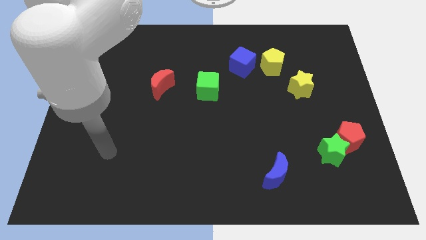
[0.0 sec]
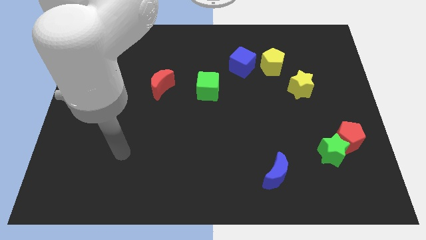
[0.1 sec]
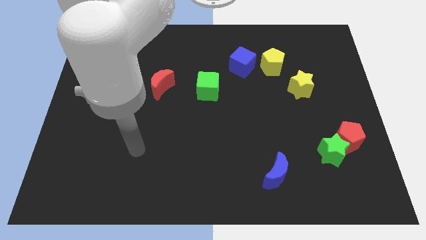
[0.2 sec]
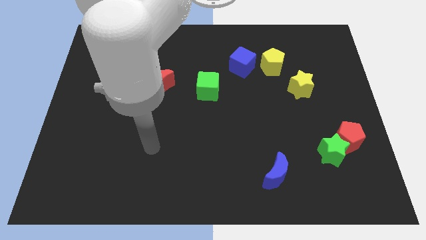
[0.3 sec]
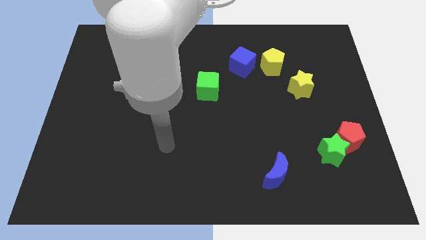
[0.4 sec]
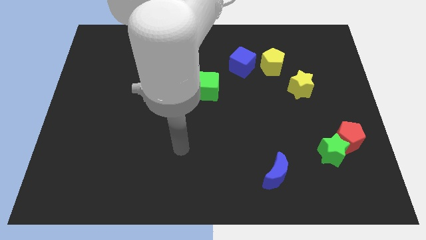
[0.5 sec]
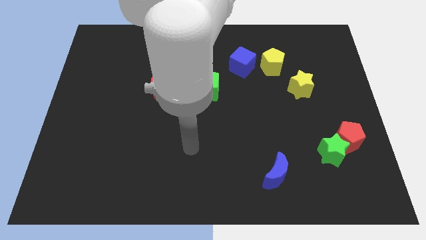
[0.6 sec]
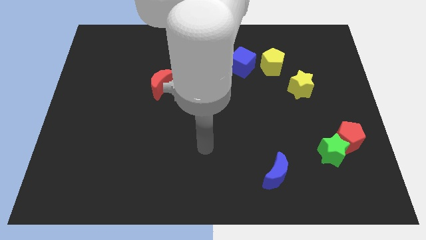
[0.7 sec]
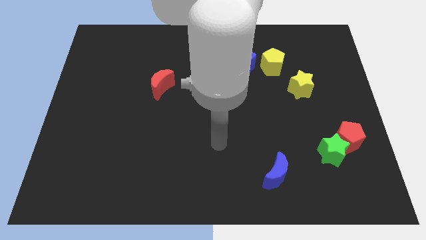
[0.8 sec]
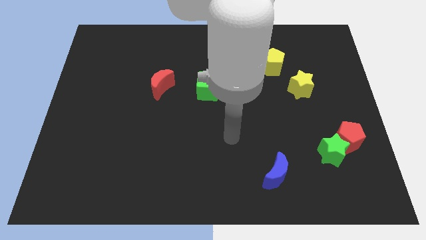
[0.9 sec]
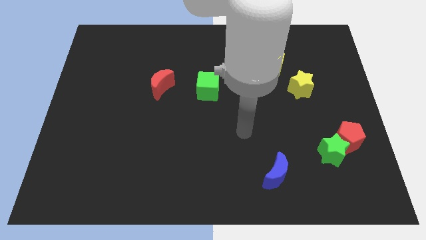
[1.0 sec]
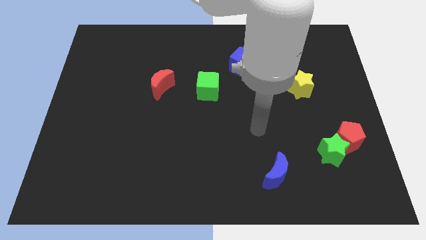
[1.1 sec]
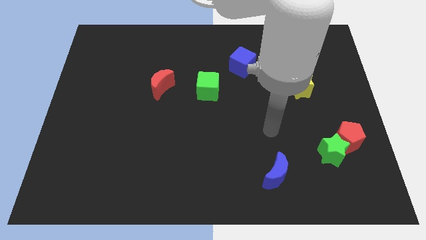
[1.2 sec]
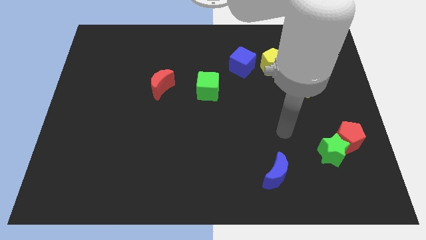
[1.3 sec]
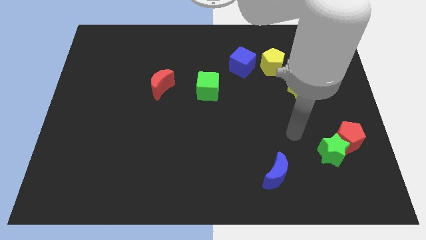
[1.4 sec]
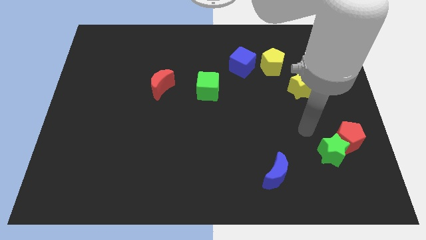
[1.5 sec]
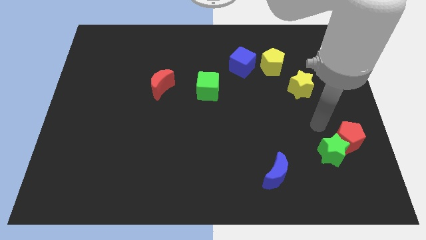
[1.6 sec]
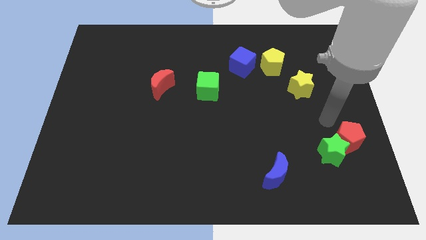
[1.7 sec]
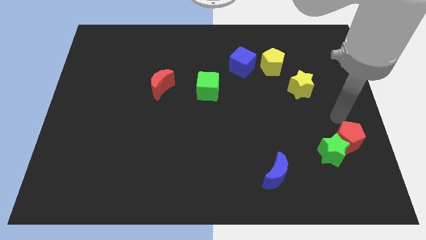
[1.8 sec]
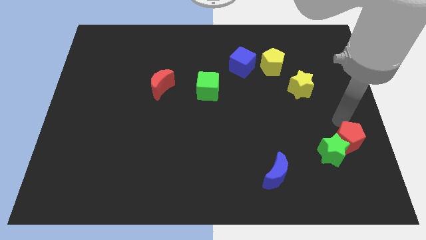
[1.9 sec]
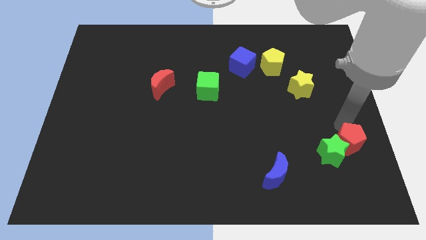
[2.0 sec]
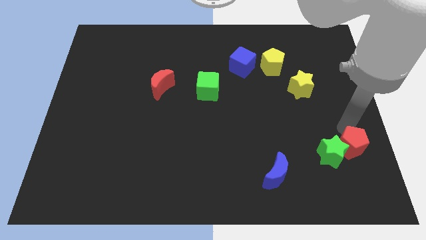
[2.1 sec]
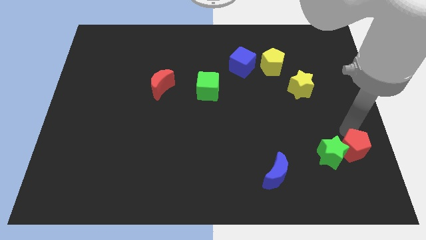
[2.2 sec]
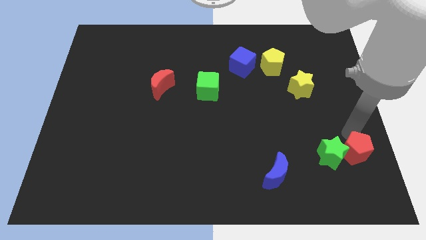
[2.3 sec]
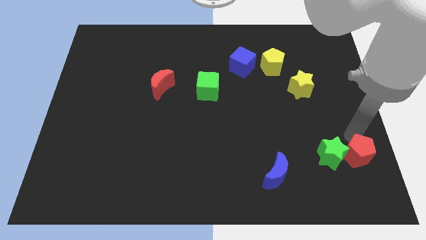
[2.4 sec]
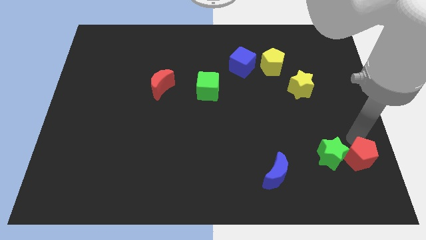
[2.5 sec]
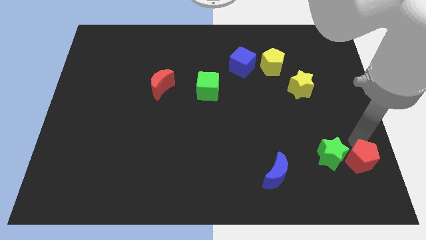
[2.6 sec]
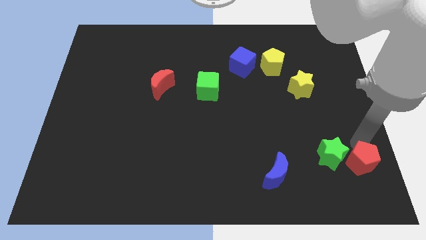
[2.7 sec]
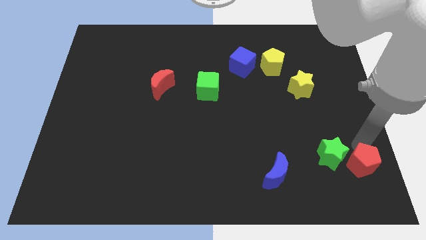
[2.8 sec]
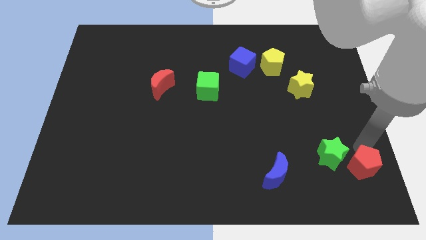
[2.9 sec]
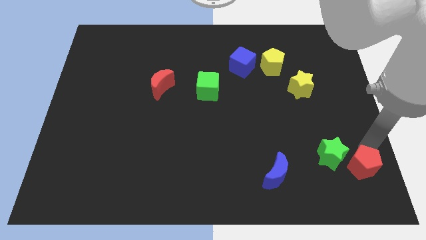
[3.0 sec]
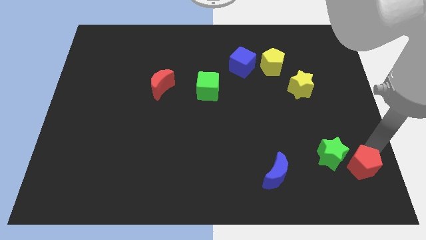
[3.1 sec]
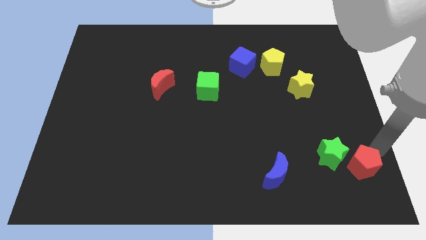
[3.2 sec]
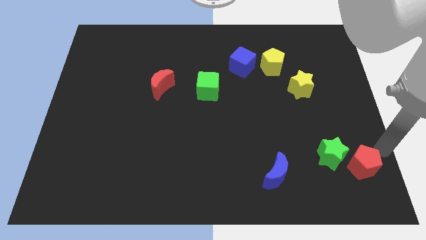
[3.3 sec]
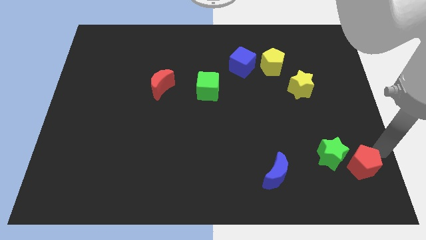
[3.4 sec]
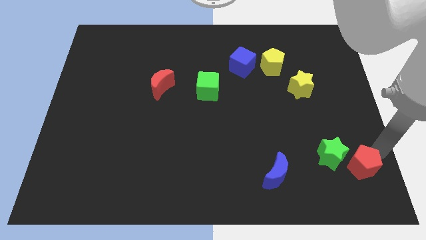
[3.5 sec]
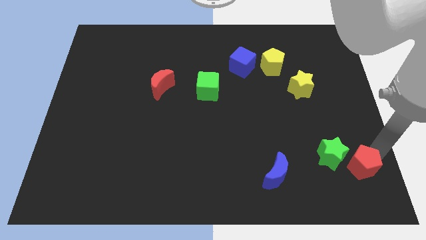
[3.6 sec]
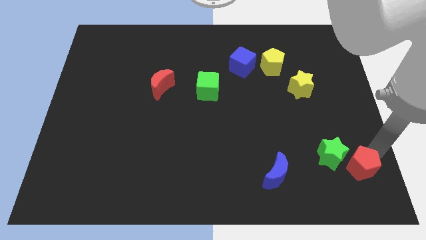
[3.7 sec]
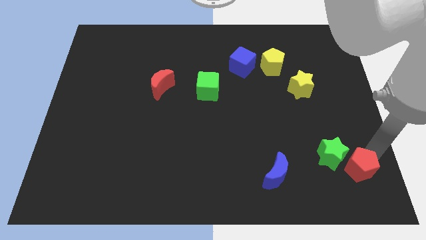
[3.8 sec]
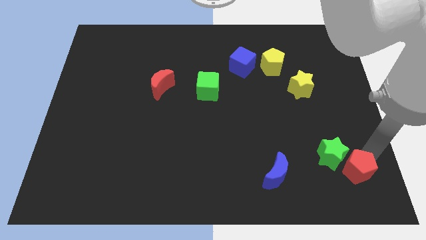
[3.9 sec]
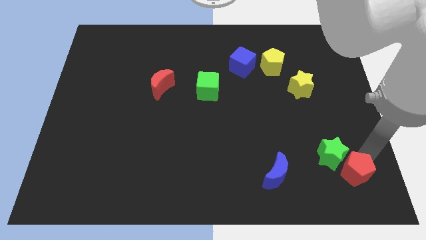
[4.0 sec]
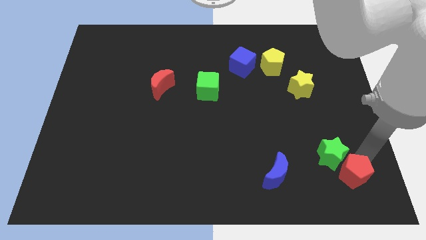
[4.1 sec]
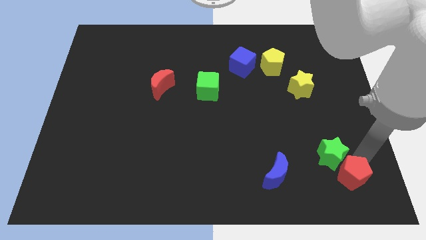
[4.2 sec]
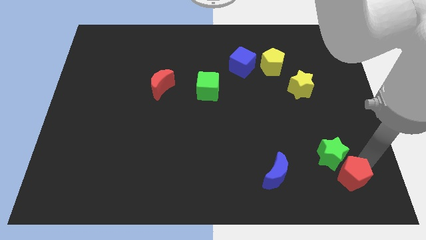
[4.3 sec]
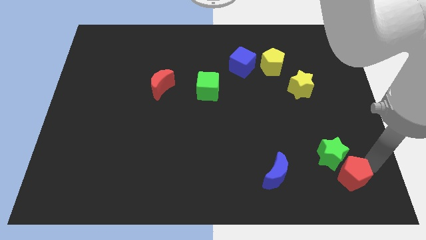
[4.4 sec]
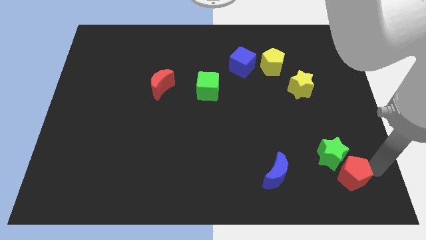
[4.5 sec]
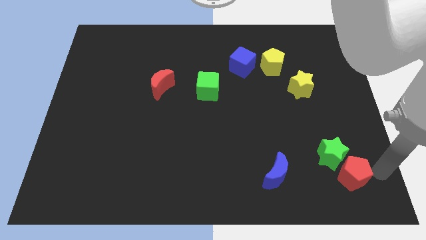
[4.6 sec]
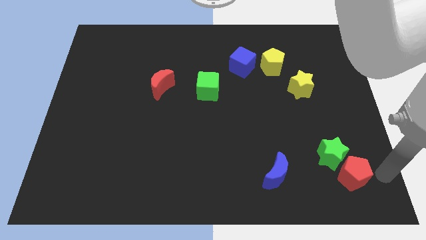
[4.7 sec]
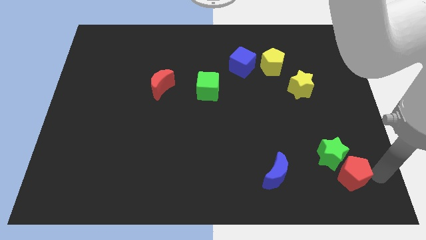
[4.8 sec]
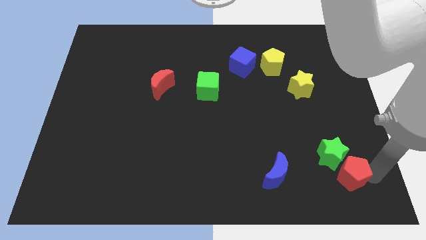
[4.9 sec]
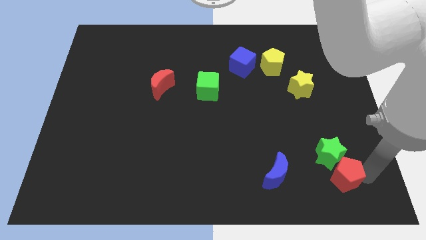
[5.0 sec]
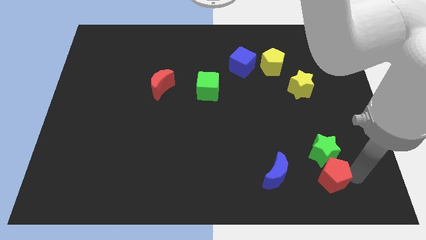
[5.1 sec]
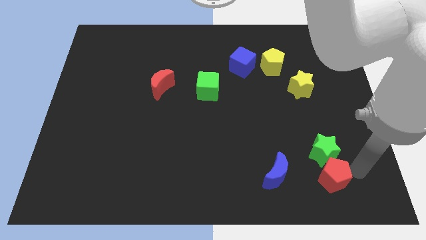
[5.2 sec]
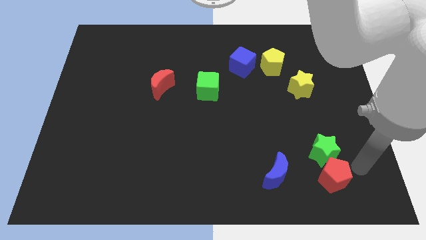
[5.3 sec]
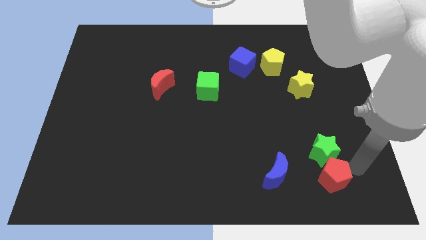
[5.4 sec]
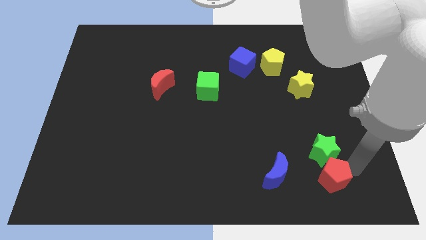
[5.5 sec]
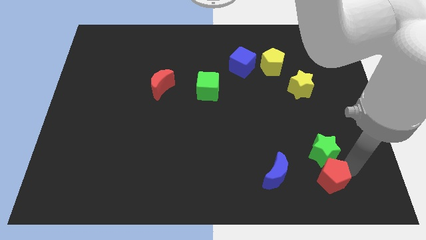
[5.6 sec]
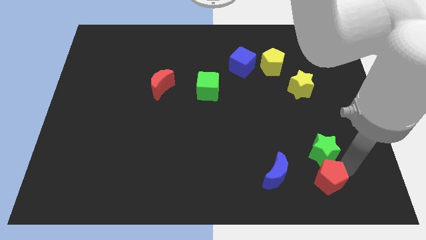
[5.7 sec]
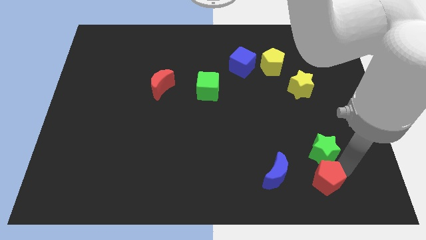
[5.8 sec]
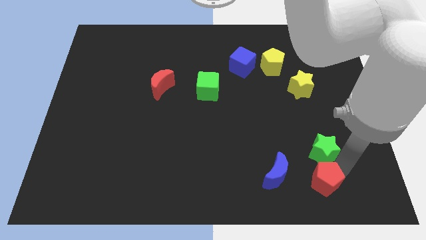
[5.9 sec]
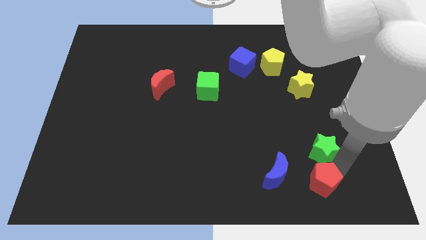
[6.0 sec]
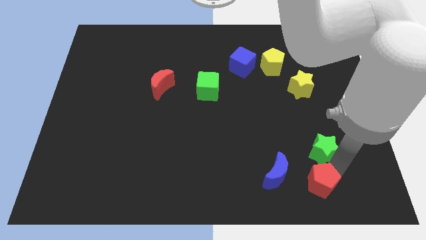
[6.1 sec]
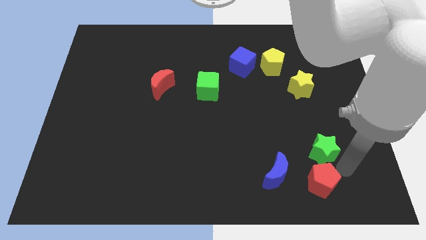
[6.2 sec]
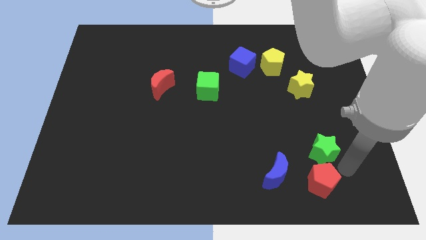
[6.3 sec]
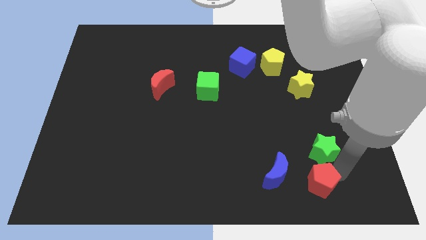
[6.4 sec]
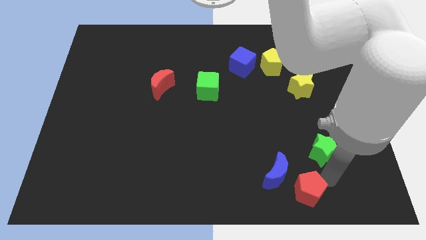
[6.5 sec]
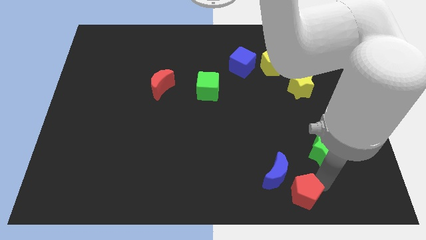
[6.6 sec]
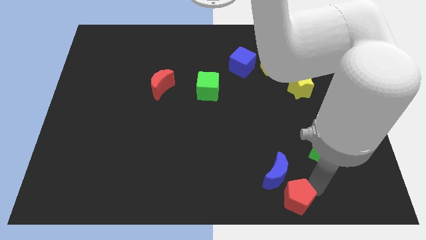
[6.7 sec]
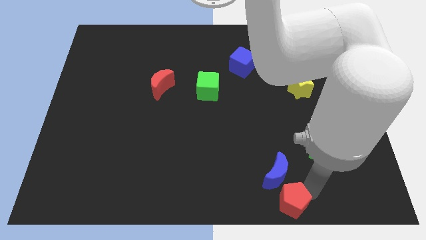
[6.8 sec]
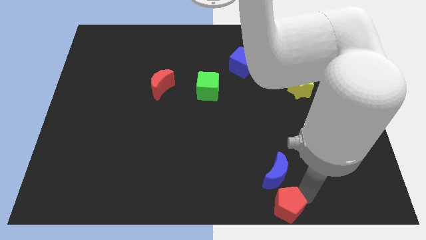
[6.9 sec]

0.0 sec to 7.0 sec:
put the red pentagon to the bottom side
